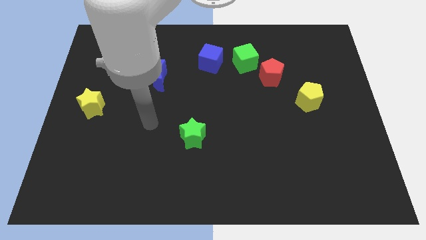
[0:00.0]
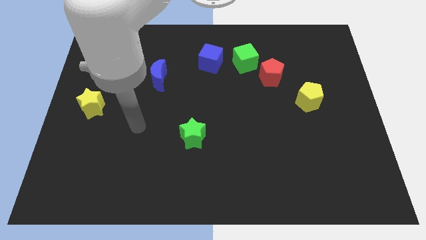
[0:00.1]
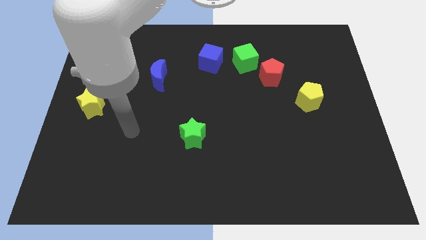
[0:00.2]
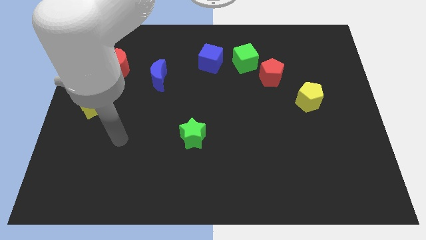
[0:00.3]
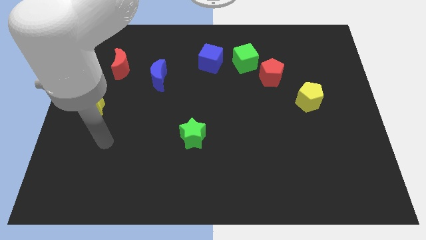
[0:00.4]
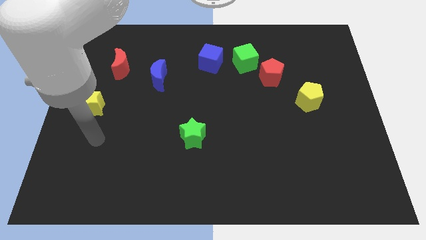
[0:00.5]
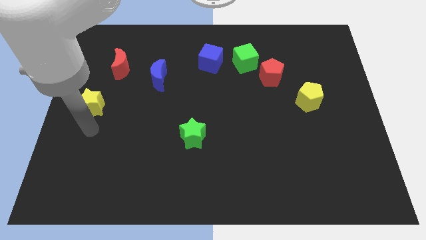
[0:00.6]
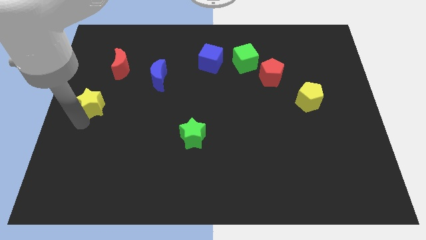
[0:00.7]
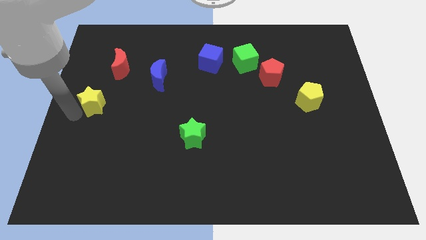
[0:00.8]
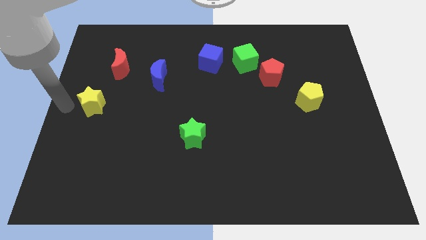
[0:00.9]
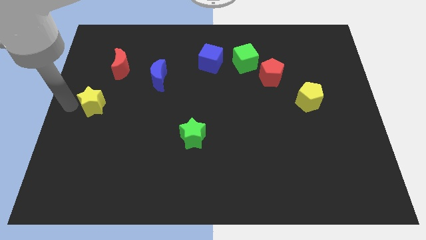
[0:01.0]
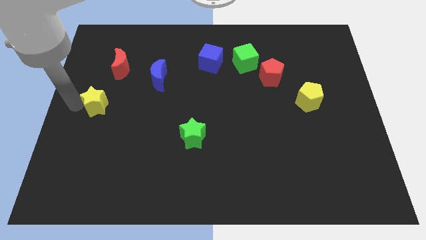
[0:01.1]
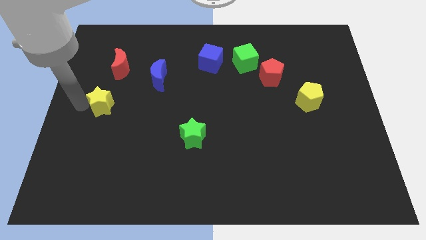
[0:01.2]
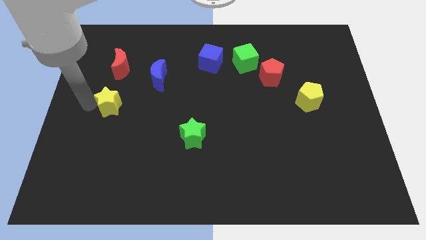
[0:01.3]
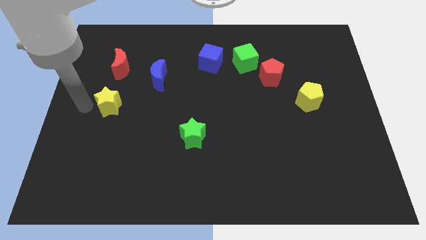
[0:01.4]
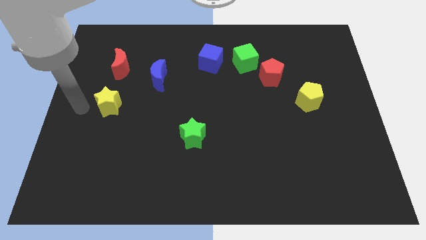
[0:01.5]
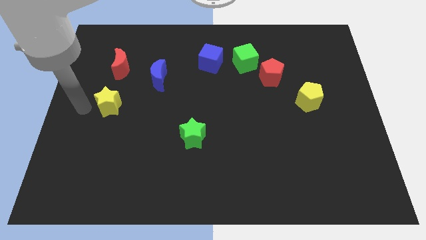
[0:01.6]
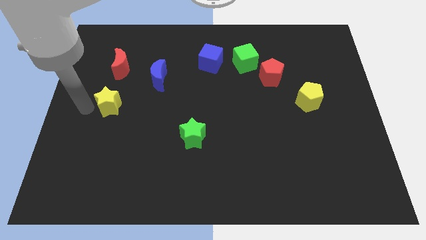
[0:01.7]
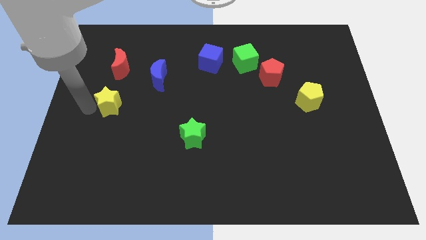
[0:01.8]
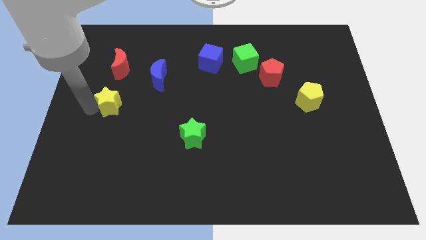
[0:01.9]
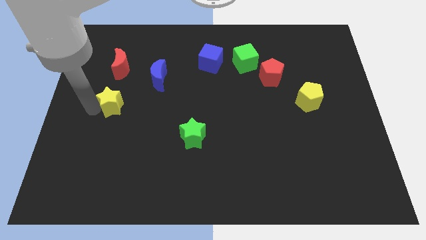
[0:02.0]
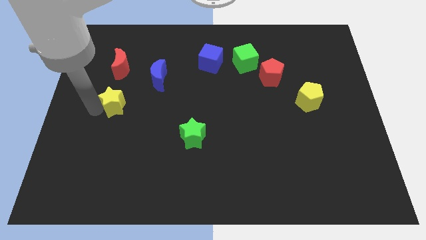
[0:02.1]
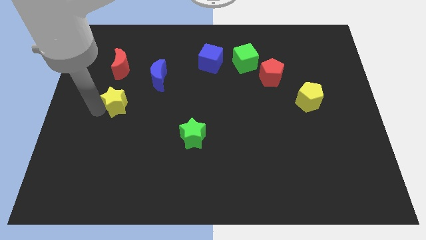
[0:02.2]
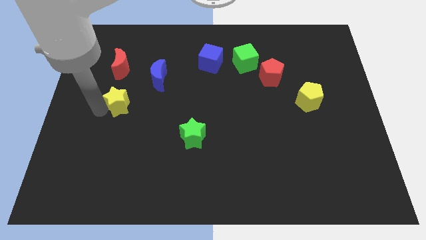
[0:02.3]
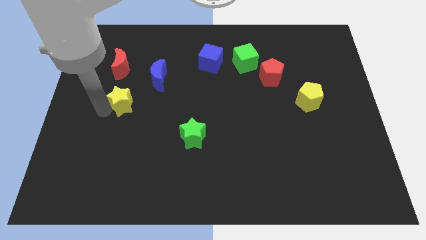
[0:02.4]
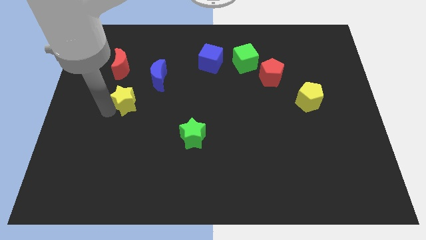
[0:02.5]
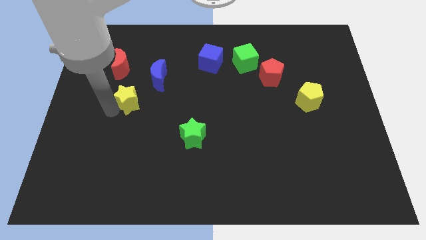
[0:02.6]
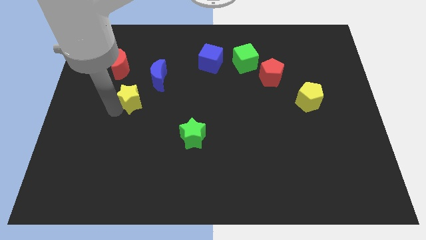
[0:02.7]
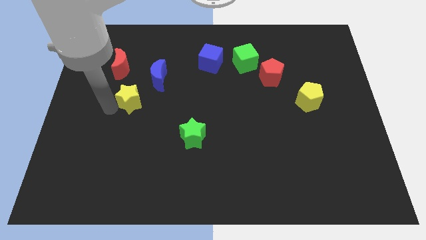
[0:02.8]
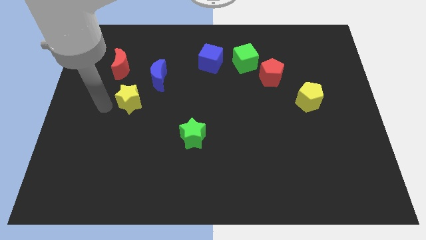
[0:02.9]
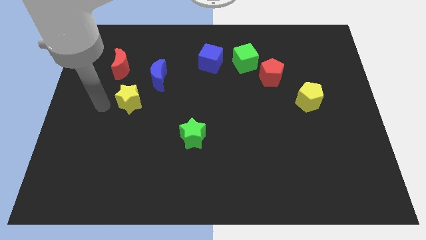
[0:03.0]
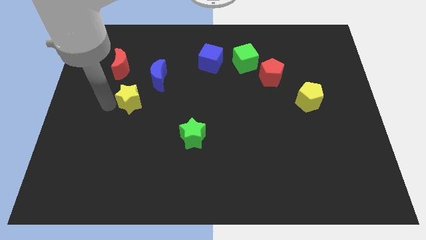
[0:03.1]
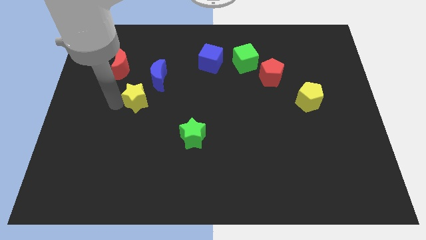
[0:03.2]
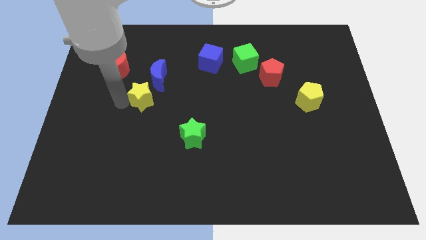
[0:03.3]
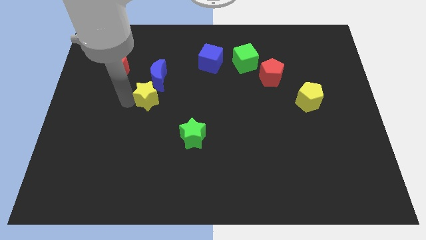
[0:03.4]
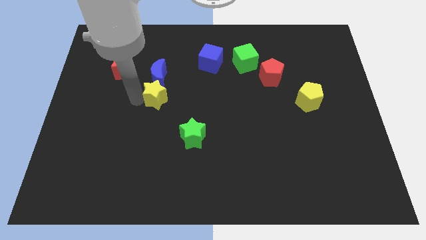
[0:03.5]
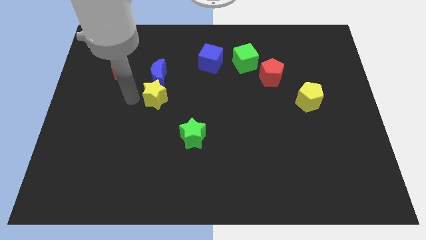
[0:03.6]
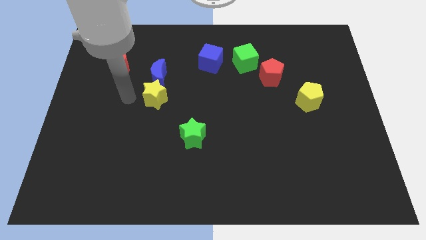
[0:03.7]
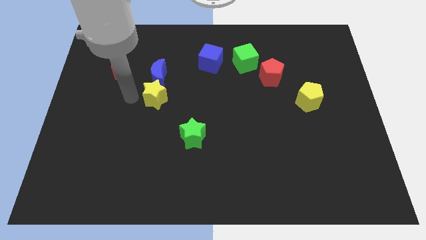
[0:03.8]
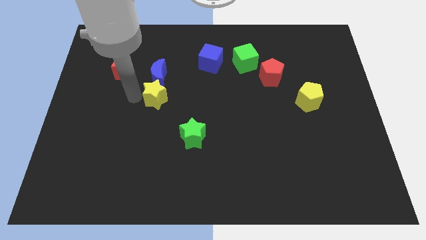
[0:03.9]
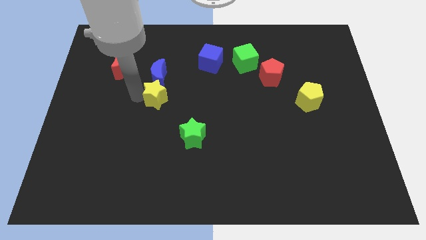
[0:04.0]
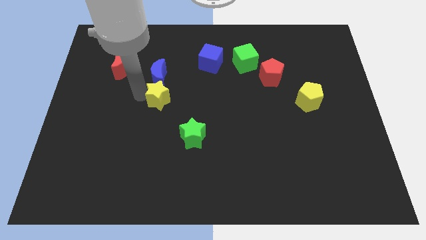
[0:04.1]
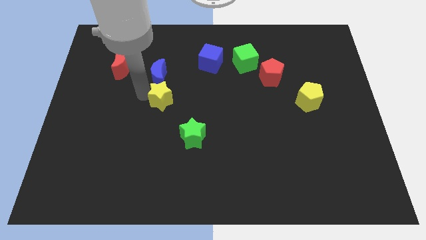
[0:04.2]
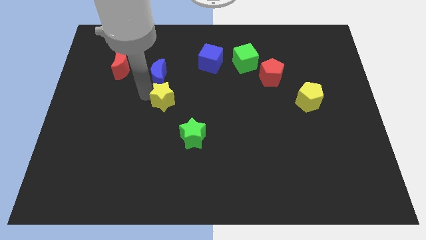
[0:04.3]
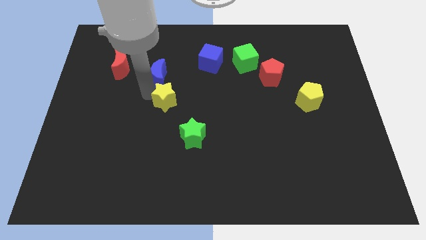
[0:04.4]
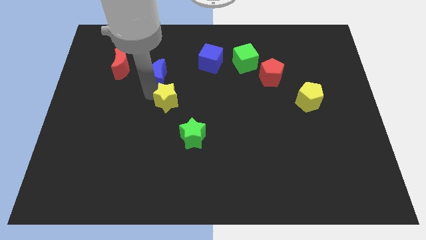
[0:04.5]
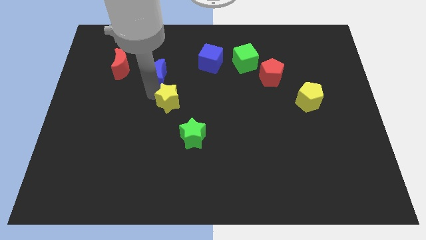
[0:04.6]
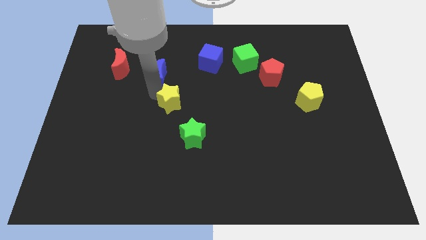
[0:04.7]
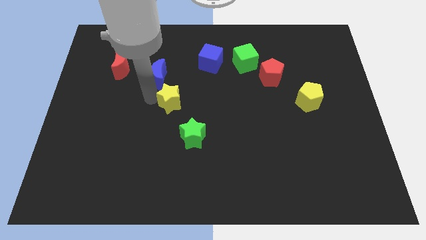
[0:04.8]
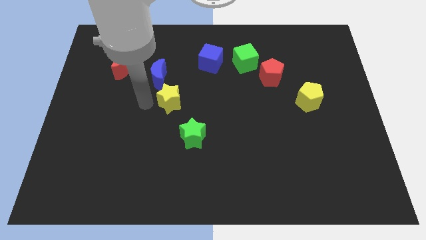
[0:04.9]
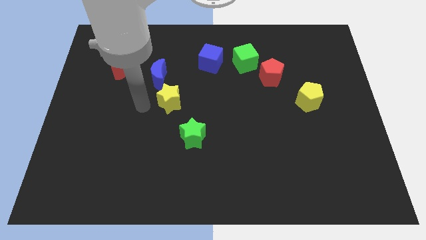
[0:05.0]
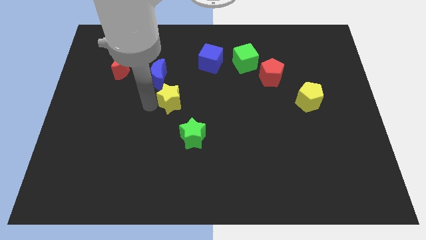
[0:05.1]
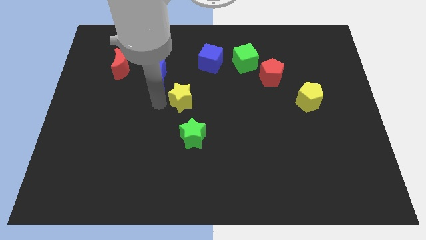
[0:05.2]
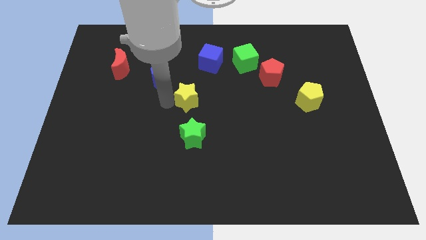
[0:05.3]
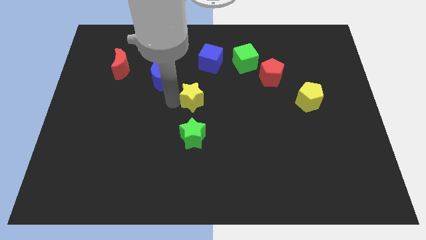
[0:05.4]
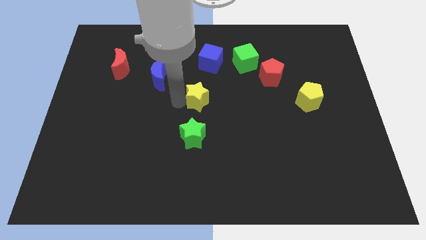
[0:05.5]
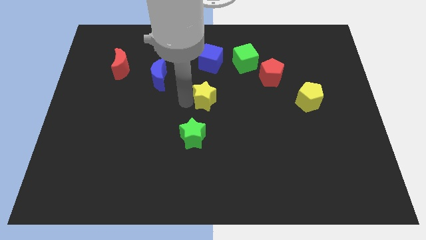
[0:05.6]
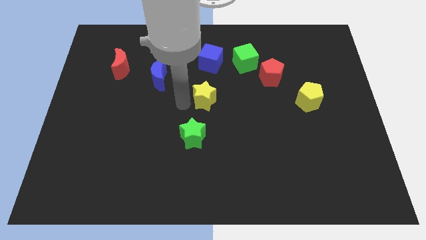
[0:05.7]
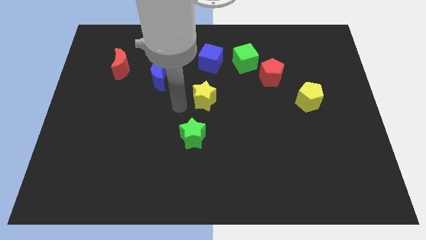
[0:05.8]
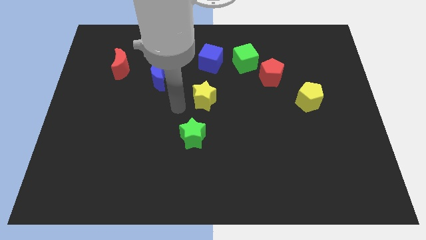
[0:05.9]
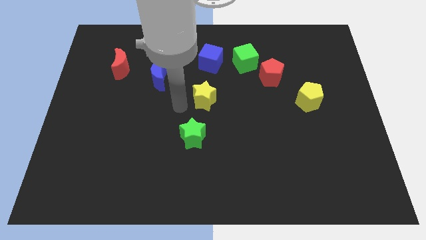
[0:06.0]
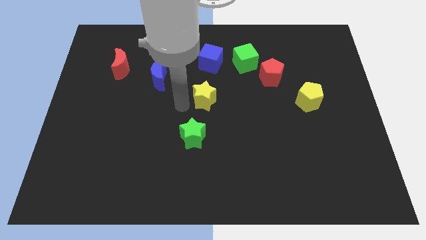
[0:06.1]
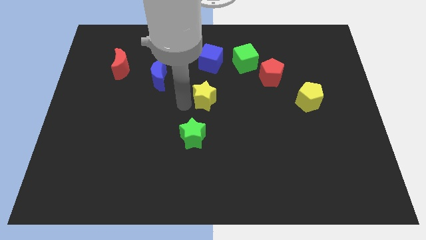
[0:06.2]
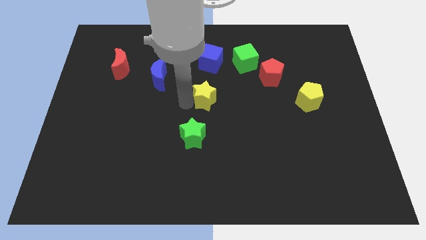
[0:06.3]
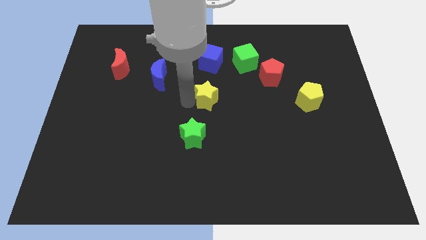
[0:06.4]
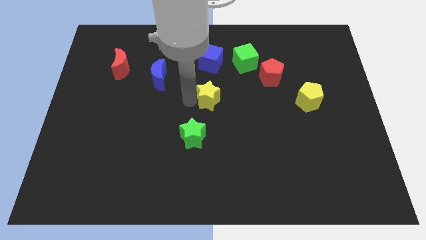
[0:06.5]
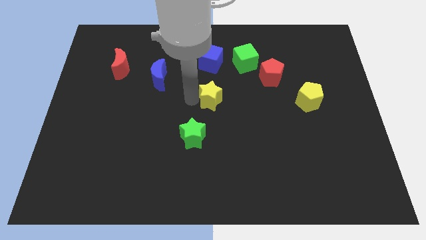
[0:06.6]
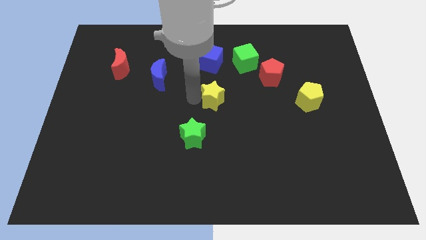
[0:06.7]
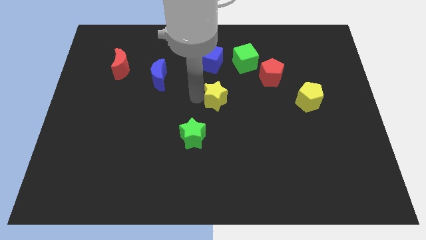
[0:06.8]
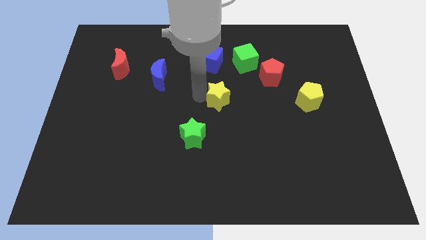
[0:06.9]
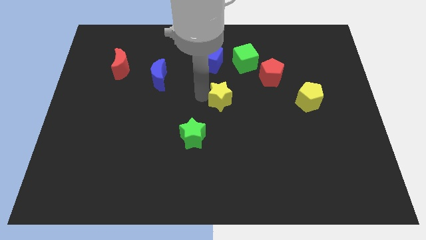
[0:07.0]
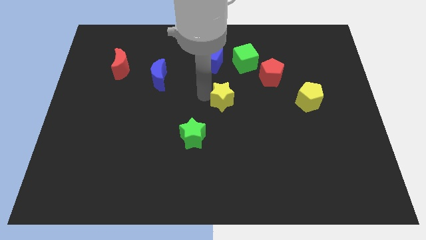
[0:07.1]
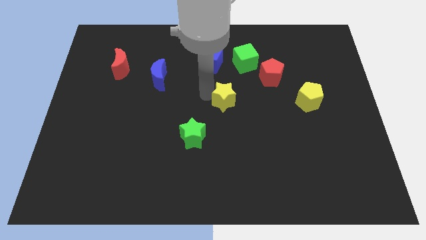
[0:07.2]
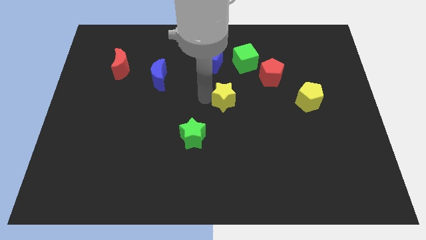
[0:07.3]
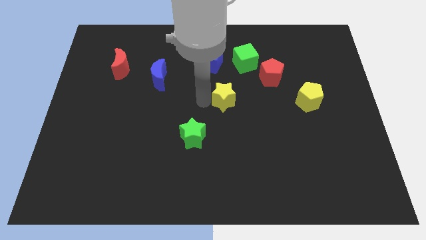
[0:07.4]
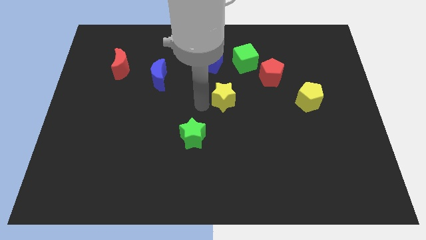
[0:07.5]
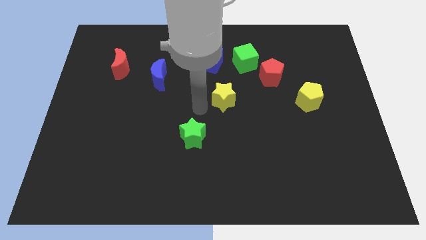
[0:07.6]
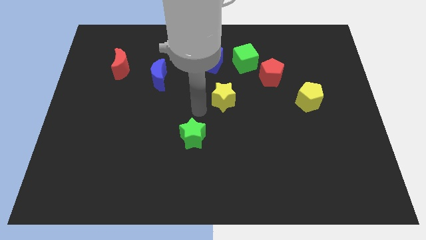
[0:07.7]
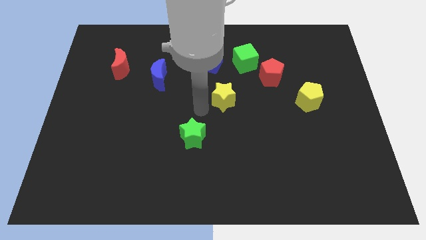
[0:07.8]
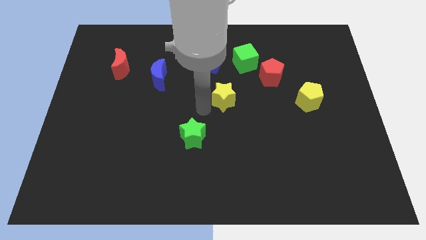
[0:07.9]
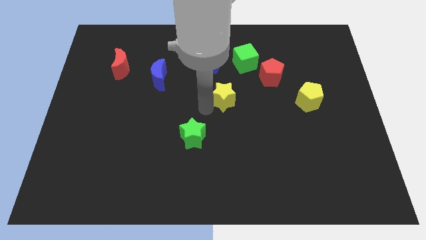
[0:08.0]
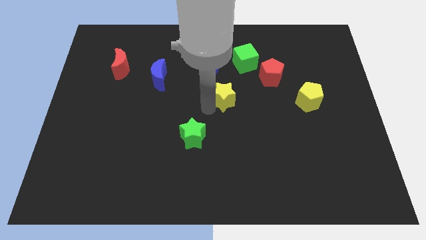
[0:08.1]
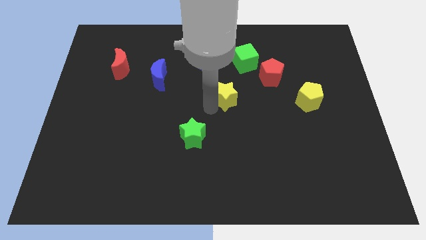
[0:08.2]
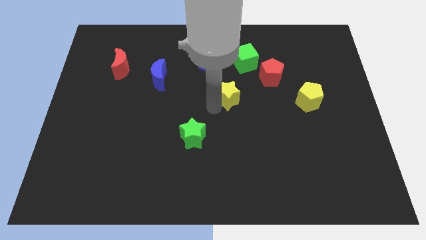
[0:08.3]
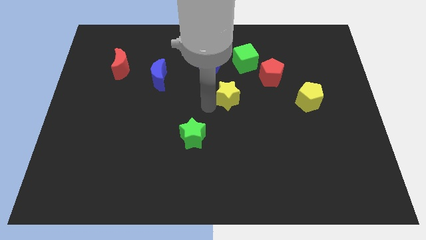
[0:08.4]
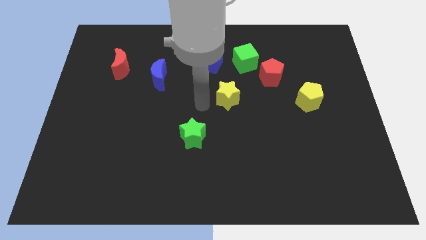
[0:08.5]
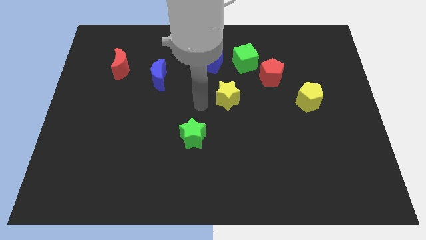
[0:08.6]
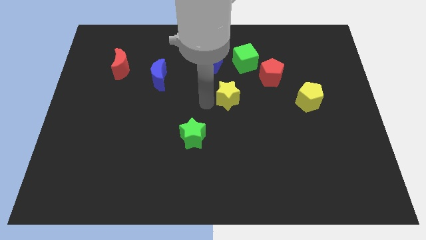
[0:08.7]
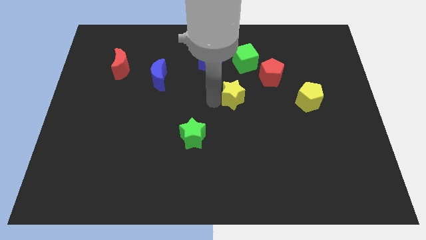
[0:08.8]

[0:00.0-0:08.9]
push the yellow star to the bottom left of the red pentagon
